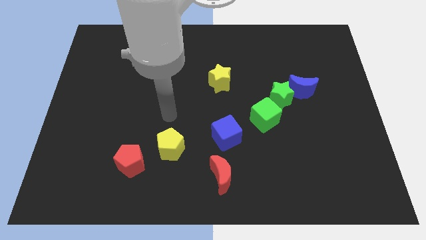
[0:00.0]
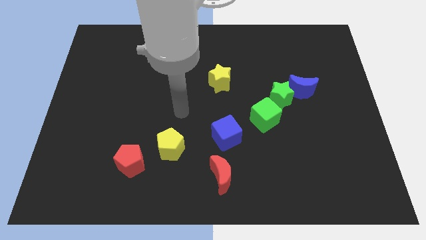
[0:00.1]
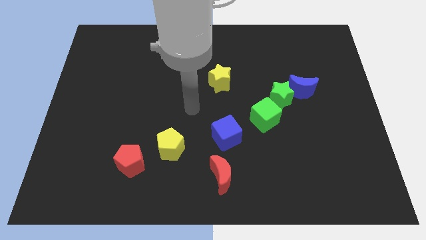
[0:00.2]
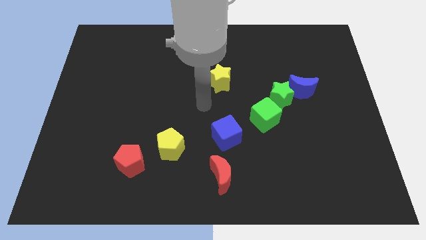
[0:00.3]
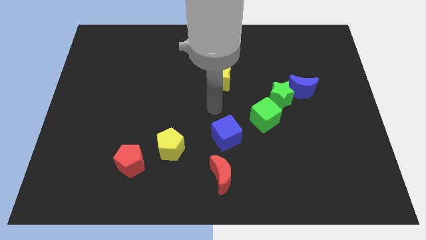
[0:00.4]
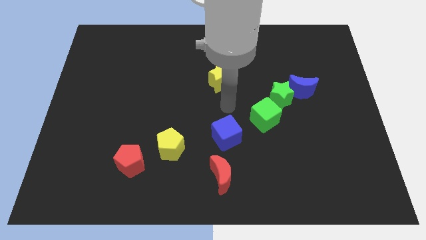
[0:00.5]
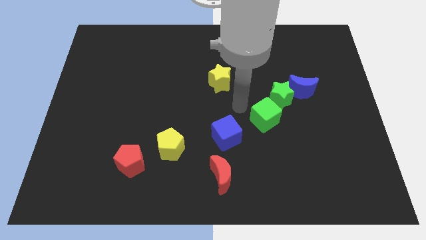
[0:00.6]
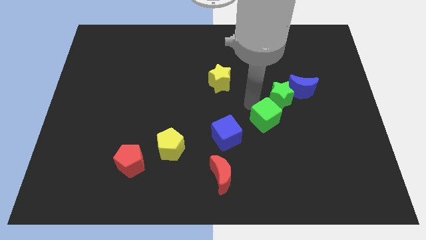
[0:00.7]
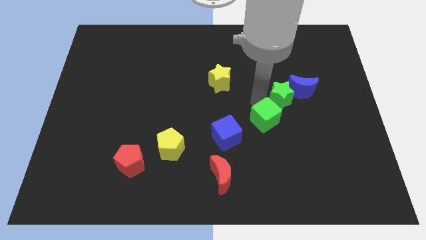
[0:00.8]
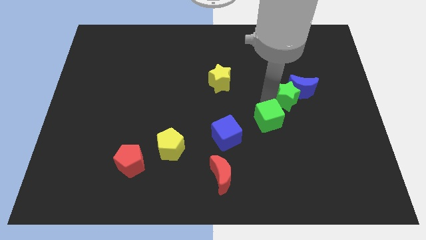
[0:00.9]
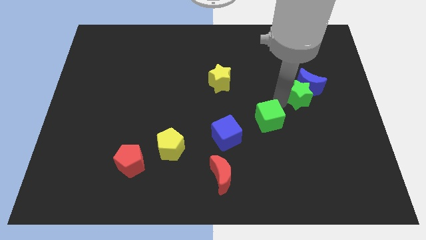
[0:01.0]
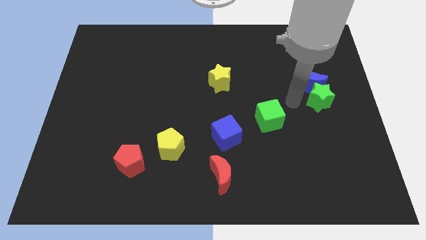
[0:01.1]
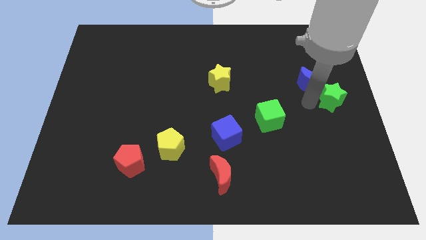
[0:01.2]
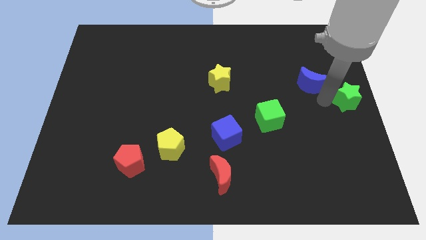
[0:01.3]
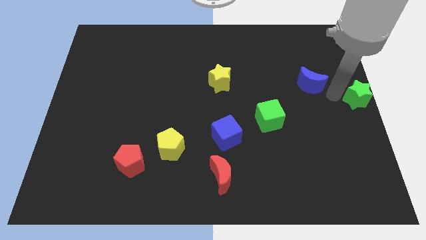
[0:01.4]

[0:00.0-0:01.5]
separate the blue moon from the green star

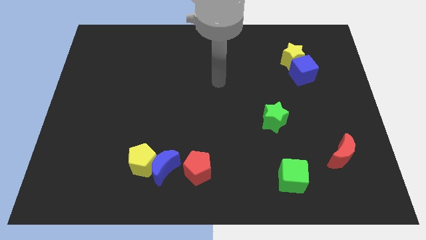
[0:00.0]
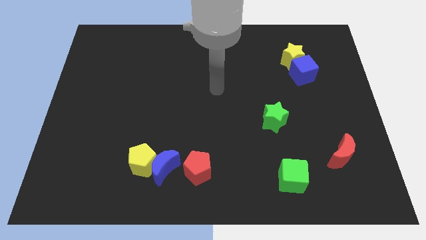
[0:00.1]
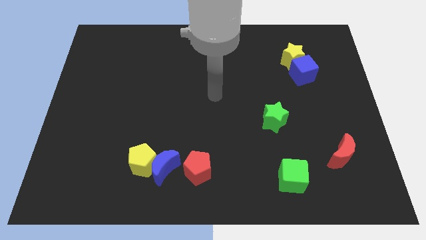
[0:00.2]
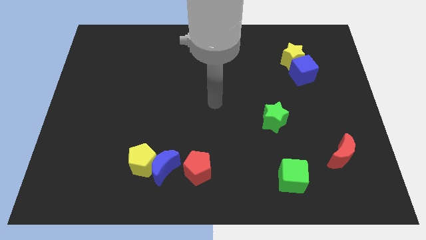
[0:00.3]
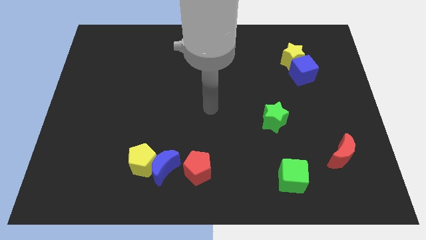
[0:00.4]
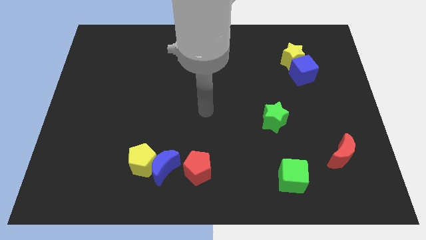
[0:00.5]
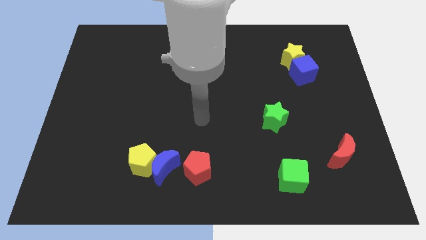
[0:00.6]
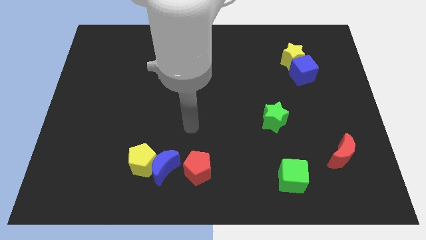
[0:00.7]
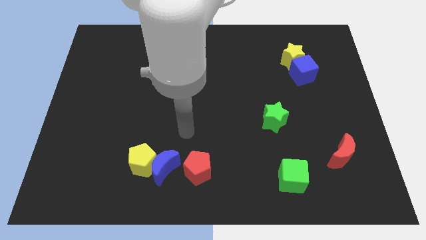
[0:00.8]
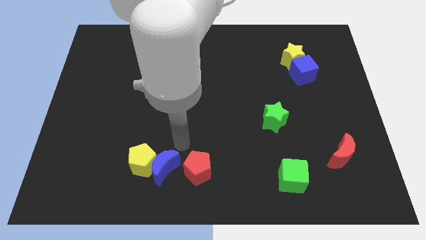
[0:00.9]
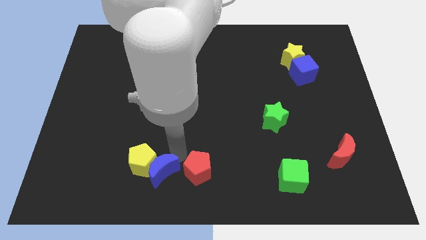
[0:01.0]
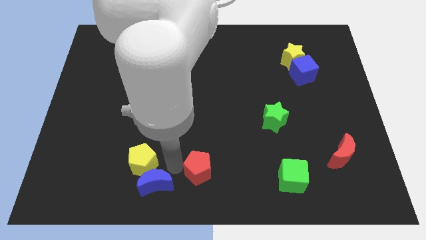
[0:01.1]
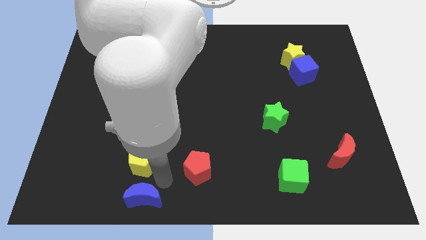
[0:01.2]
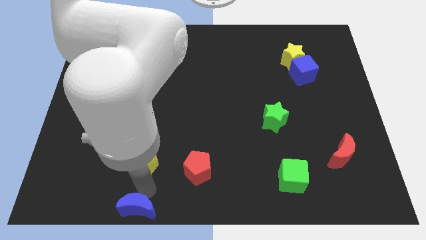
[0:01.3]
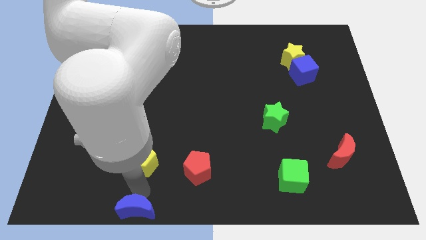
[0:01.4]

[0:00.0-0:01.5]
move the yellow pentagon away from the blue moon

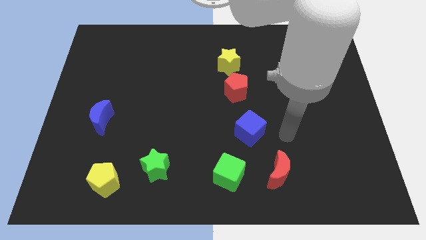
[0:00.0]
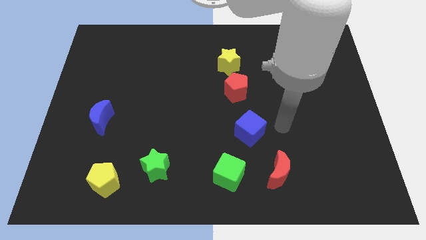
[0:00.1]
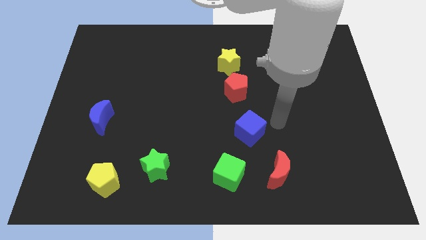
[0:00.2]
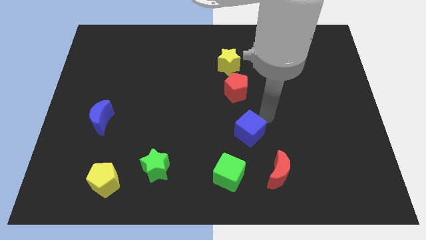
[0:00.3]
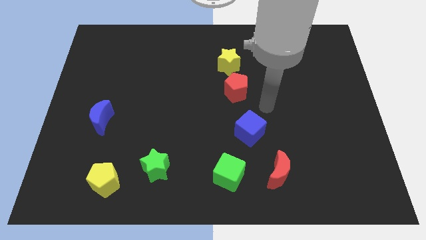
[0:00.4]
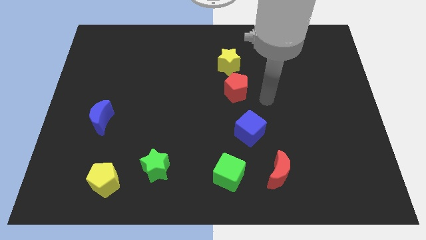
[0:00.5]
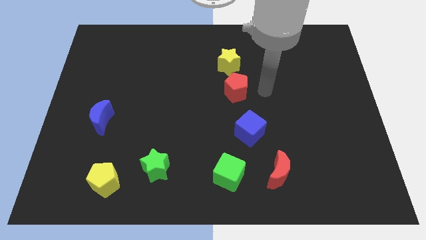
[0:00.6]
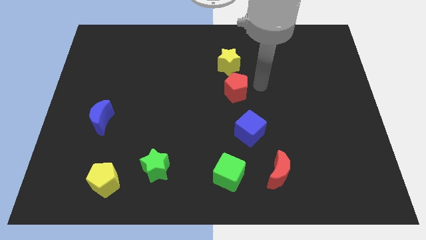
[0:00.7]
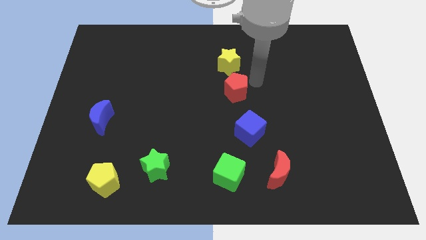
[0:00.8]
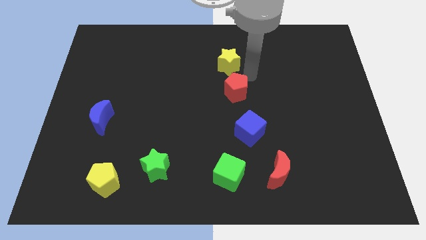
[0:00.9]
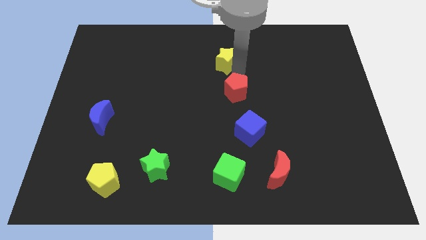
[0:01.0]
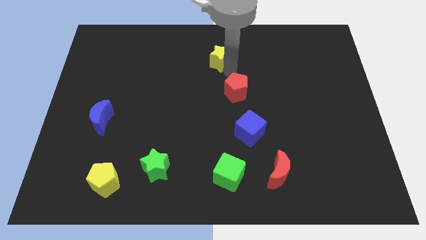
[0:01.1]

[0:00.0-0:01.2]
separate the red pentagon from the yellow star

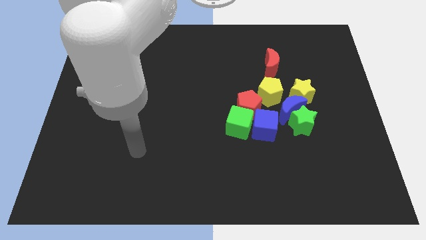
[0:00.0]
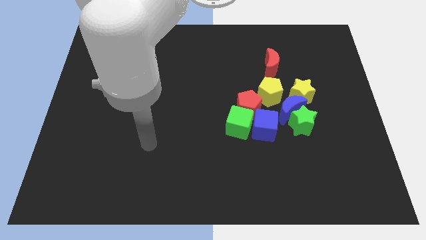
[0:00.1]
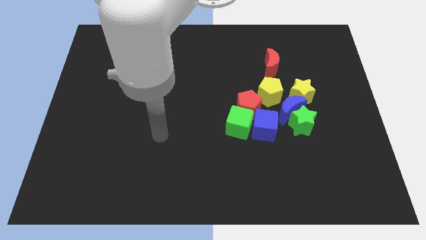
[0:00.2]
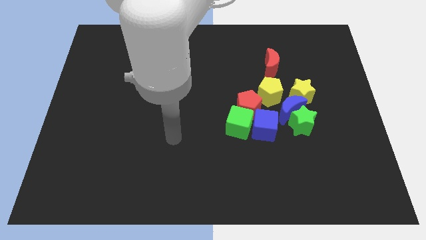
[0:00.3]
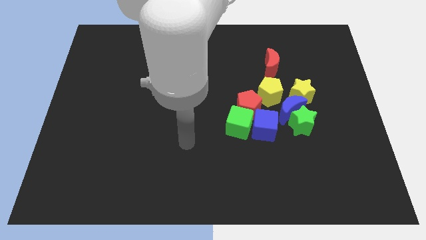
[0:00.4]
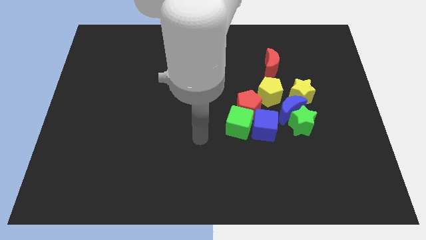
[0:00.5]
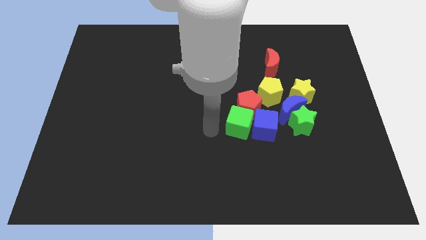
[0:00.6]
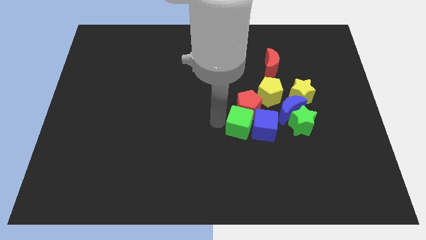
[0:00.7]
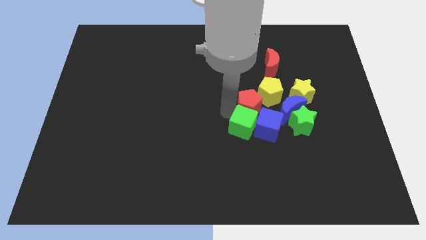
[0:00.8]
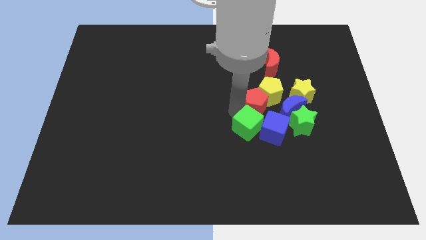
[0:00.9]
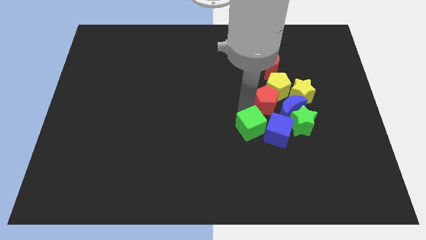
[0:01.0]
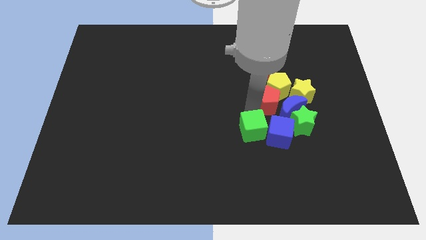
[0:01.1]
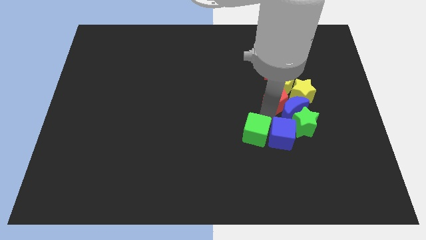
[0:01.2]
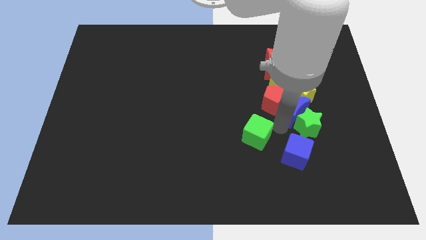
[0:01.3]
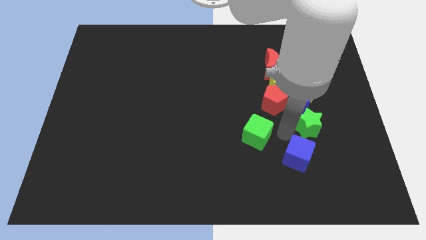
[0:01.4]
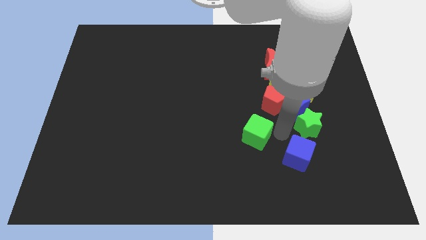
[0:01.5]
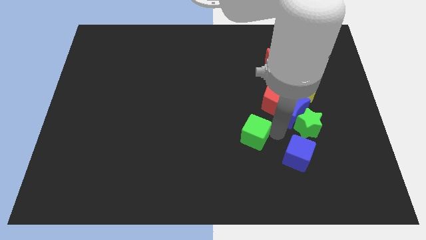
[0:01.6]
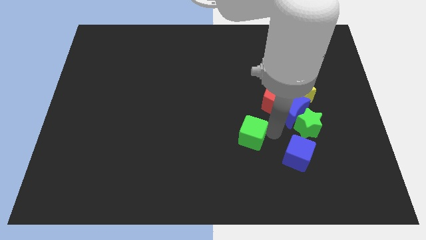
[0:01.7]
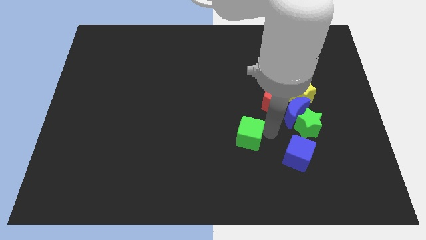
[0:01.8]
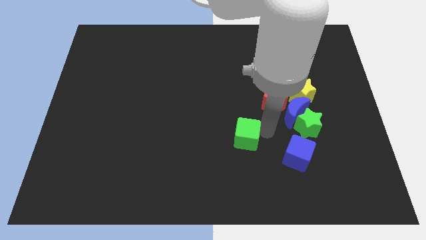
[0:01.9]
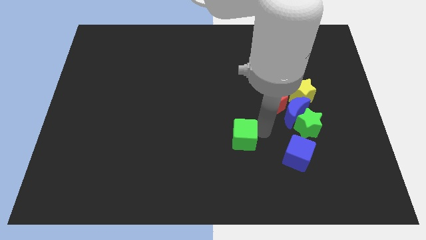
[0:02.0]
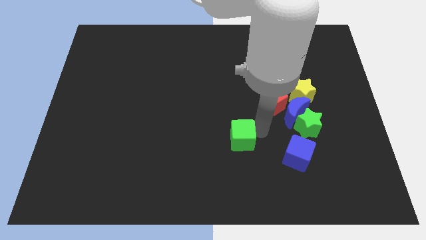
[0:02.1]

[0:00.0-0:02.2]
move the green cube away from the red pentagon and blue cube

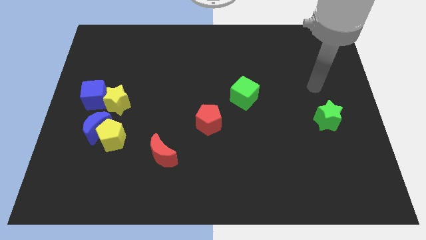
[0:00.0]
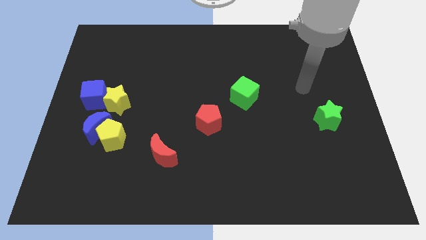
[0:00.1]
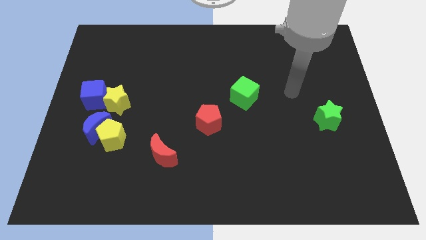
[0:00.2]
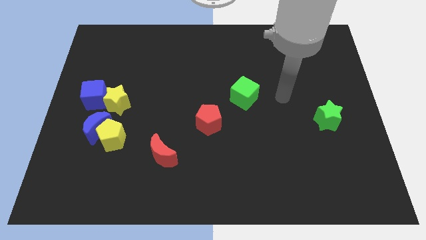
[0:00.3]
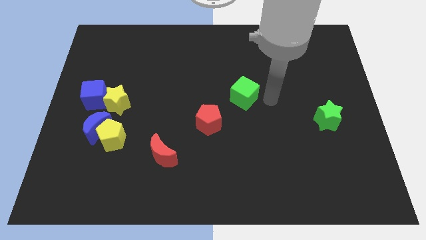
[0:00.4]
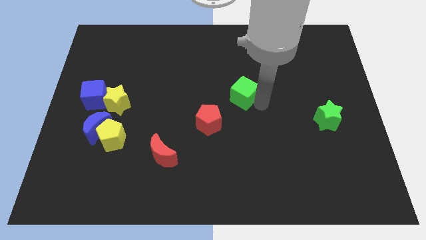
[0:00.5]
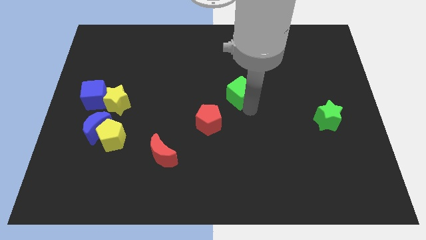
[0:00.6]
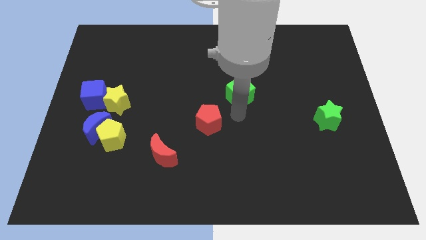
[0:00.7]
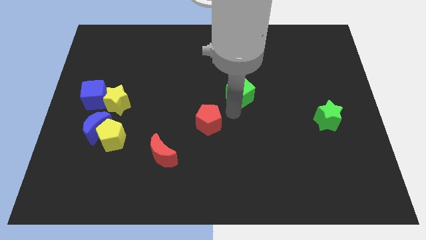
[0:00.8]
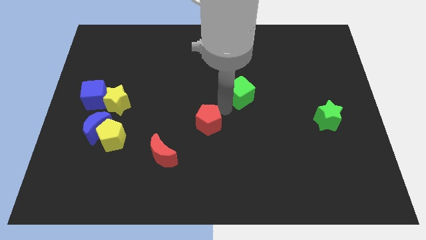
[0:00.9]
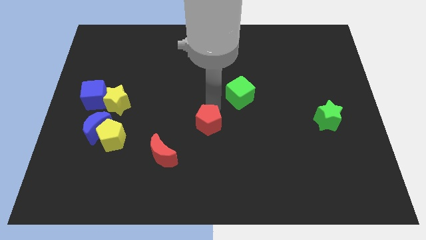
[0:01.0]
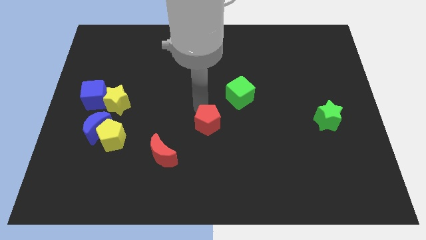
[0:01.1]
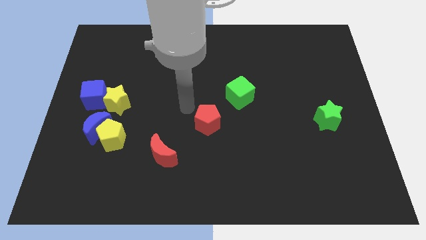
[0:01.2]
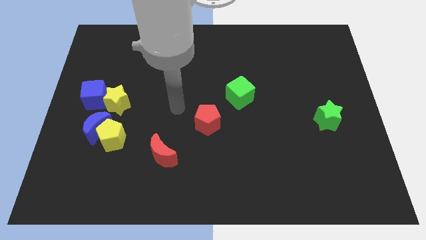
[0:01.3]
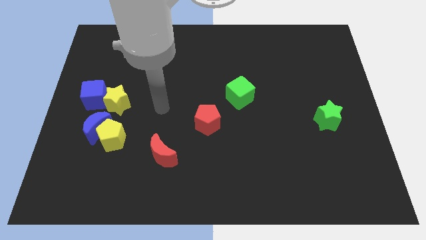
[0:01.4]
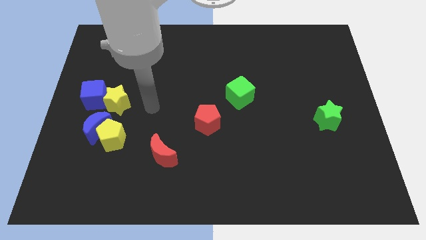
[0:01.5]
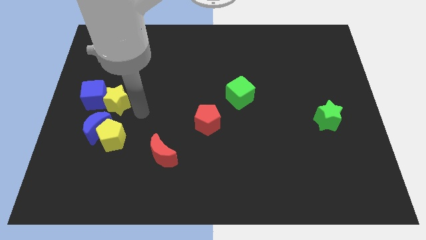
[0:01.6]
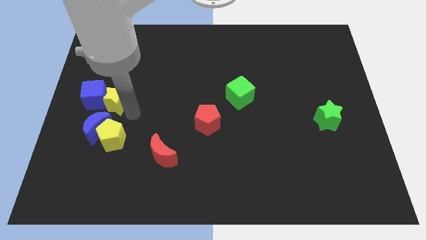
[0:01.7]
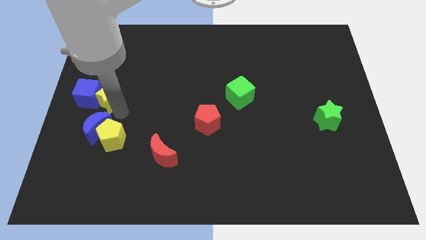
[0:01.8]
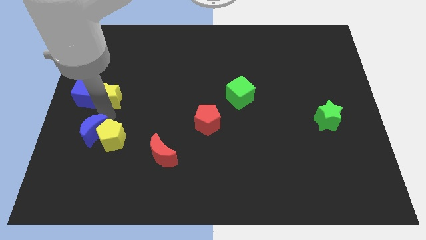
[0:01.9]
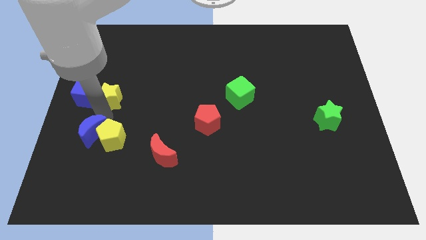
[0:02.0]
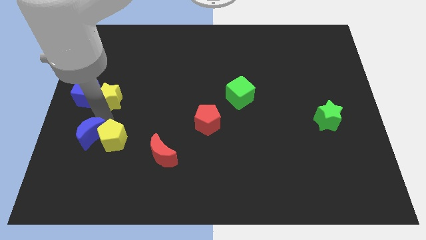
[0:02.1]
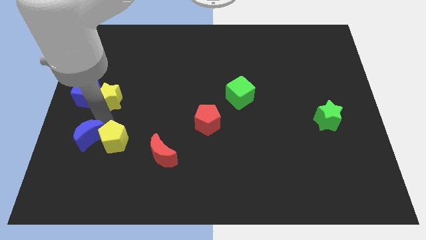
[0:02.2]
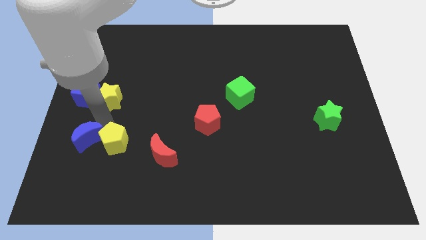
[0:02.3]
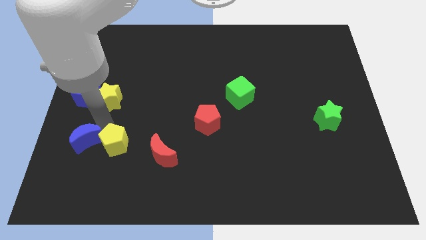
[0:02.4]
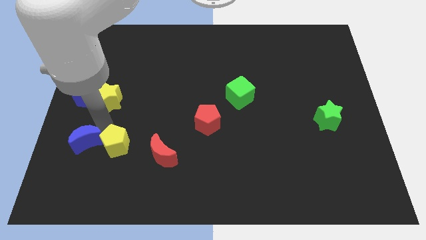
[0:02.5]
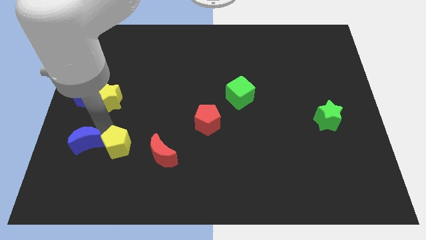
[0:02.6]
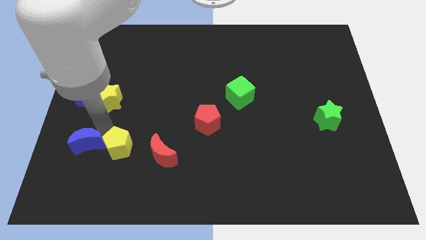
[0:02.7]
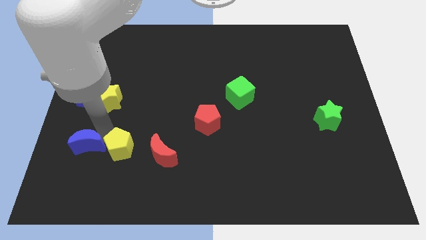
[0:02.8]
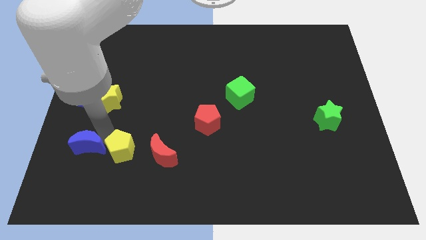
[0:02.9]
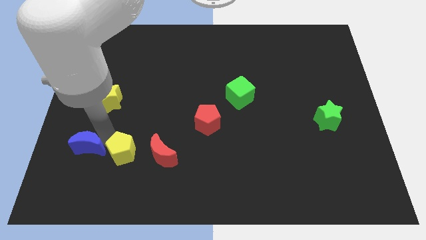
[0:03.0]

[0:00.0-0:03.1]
pull the yellow pentagon apart from the blue moon and yellow star
